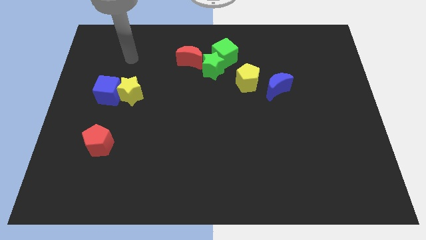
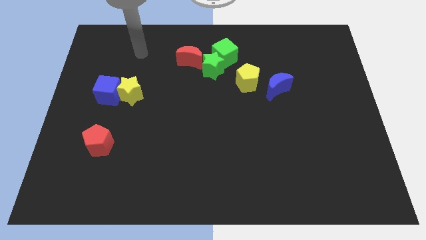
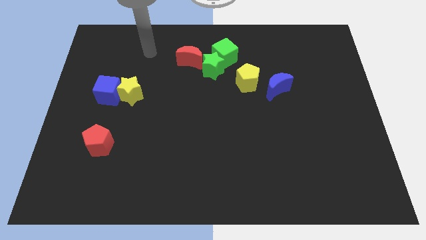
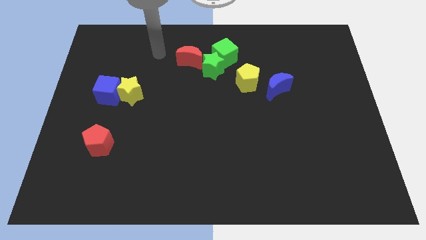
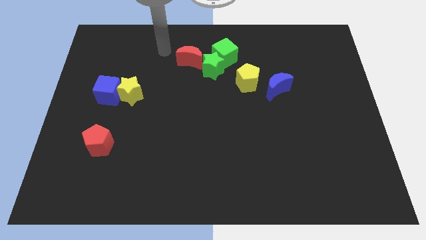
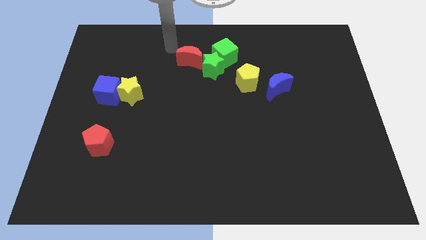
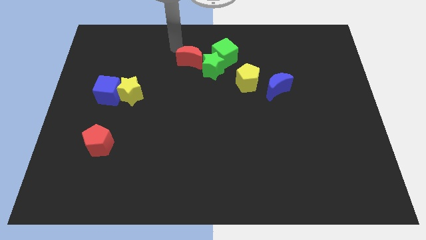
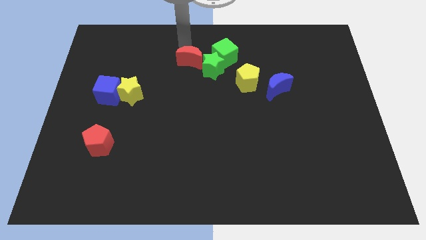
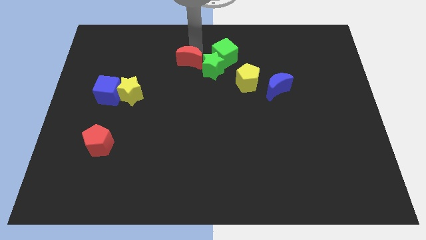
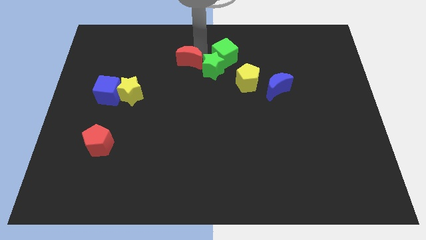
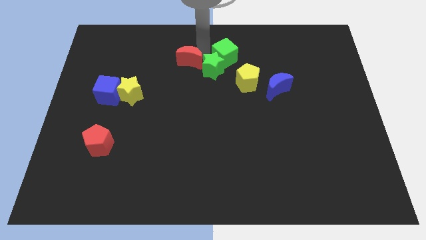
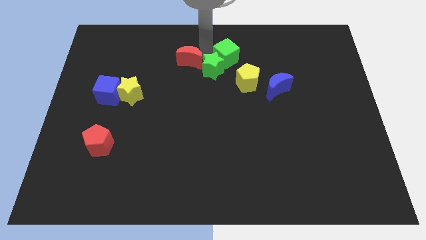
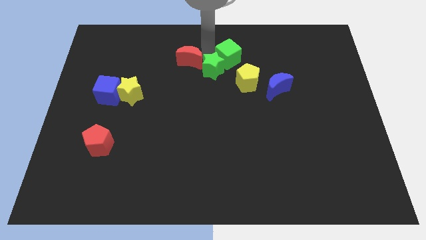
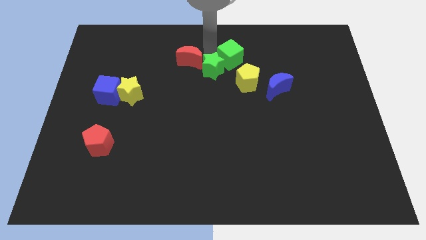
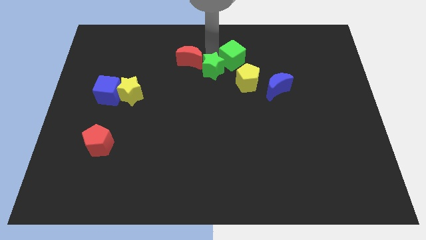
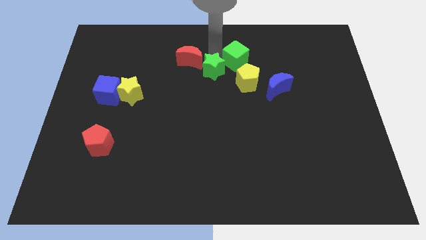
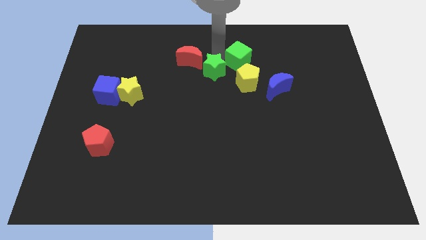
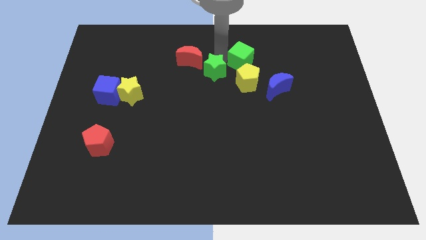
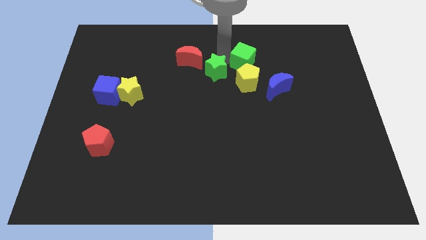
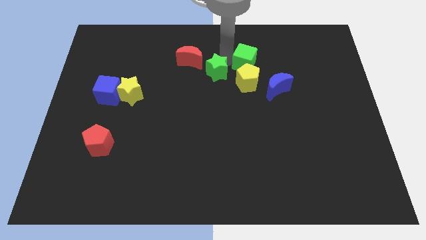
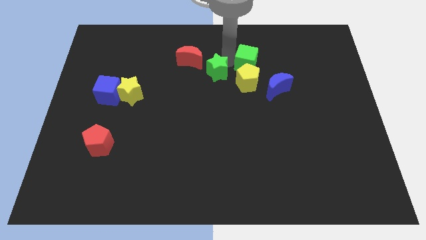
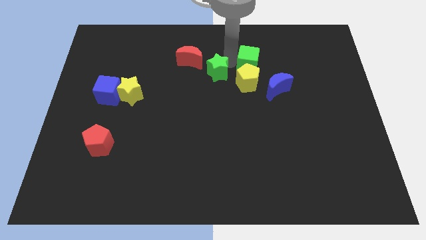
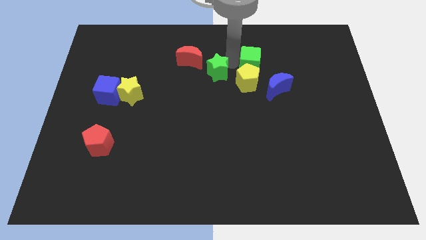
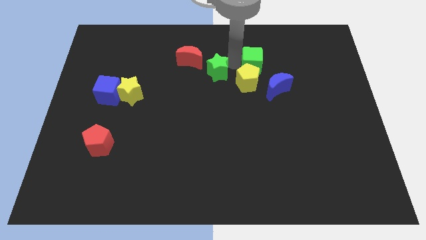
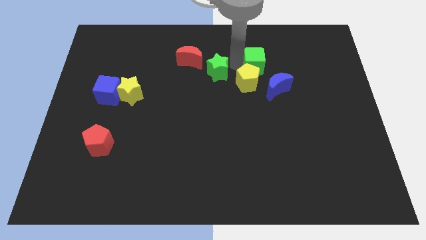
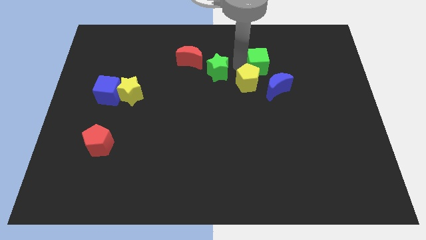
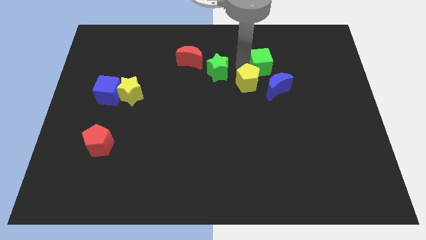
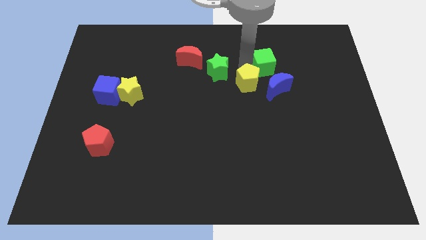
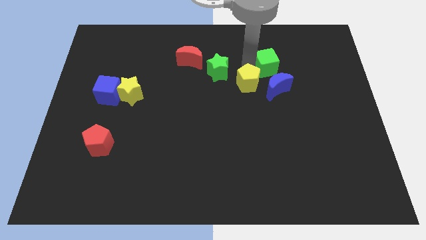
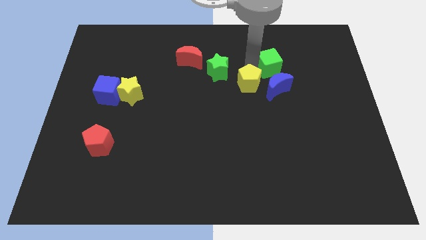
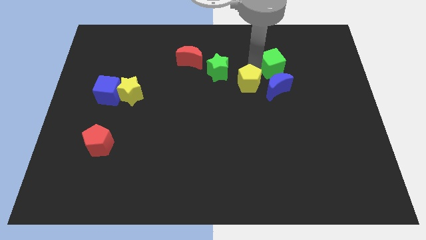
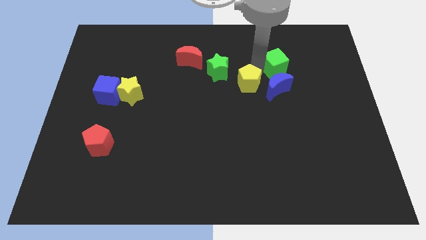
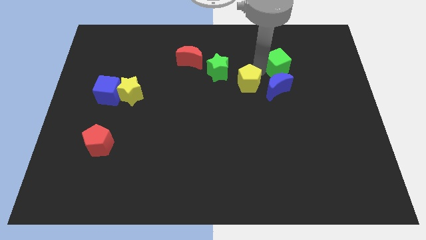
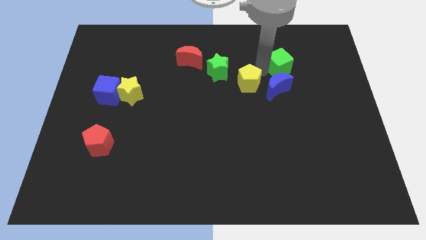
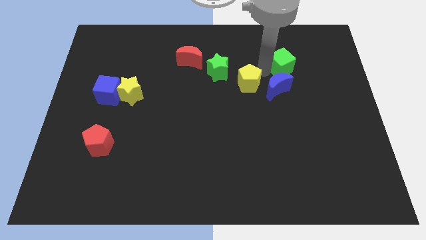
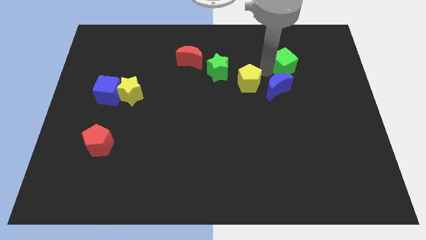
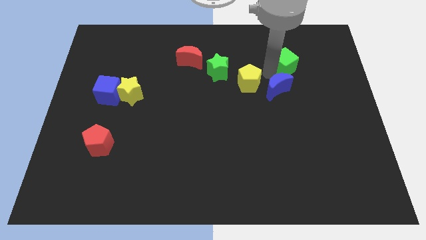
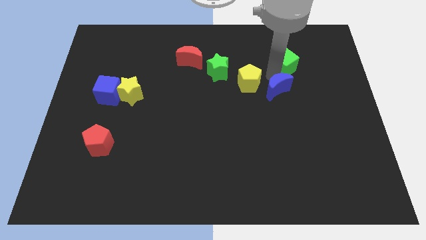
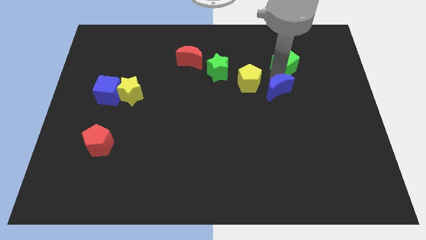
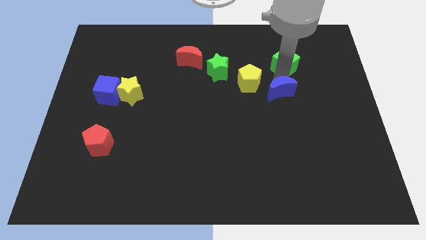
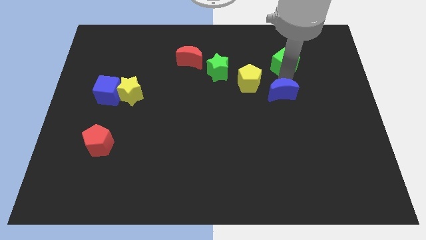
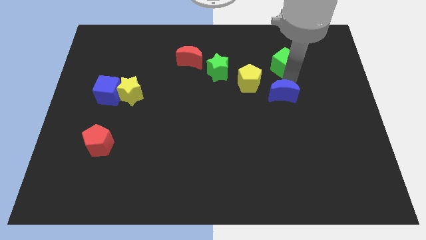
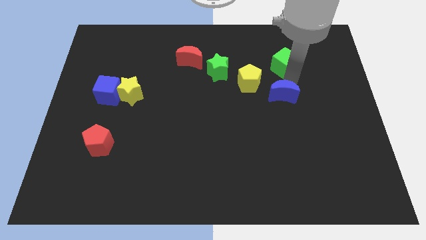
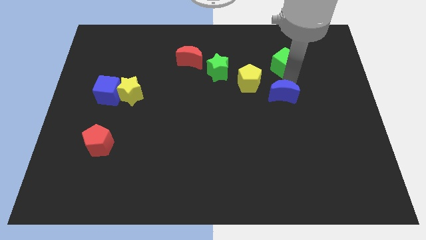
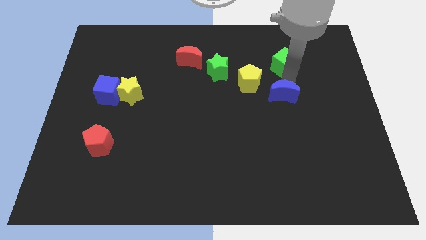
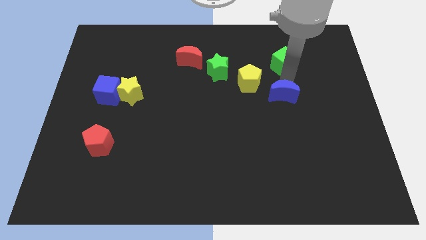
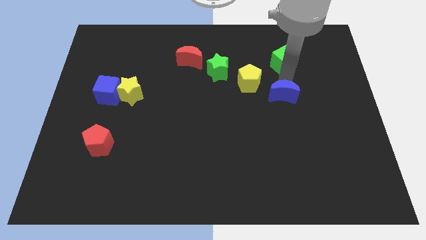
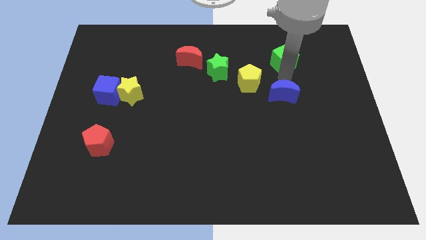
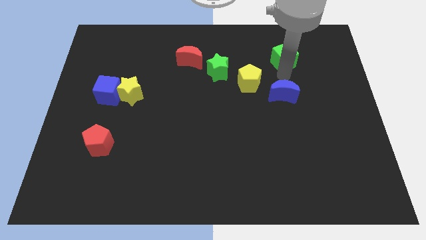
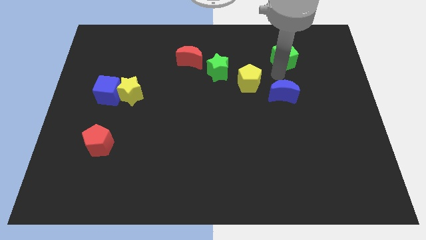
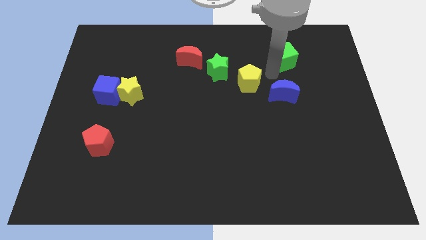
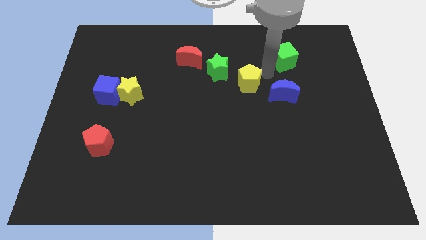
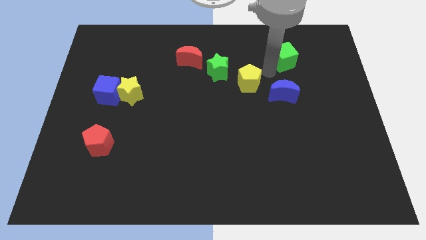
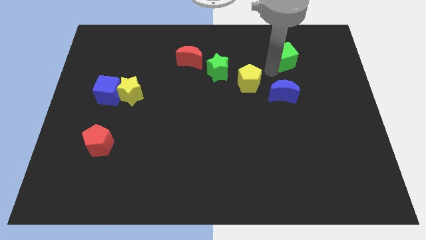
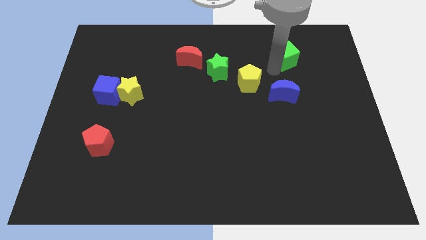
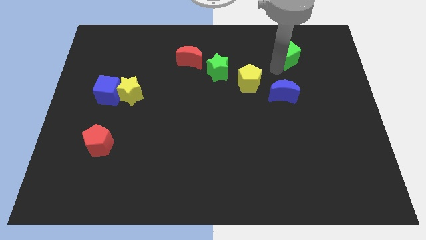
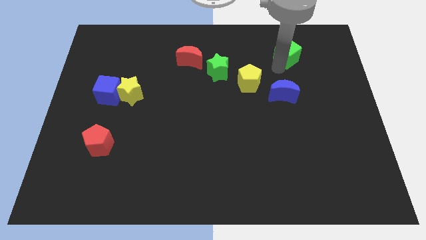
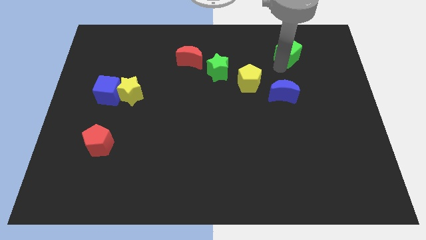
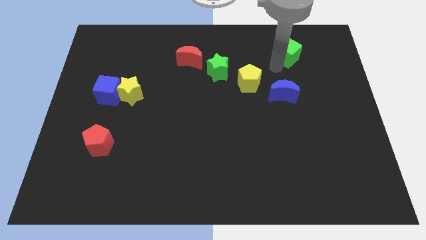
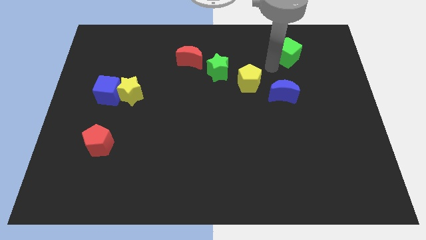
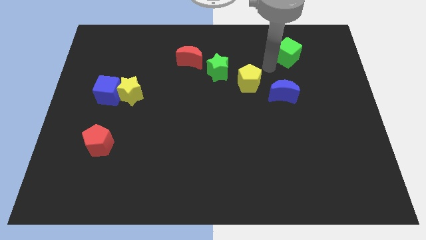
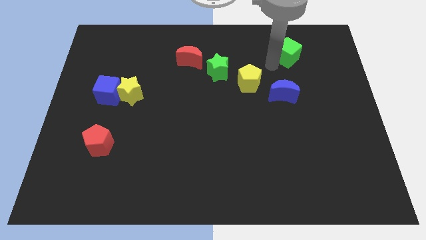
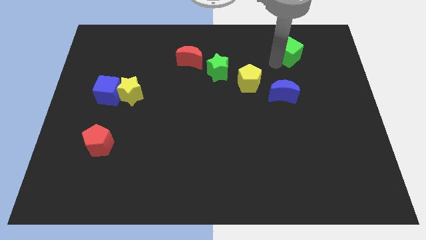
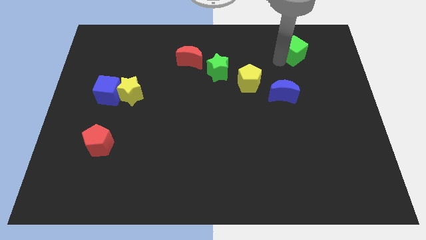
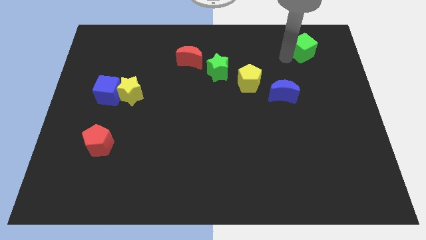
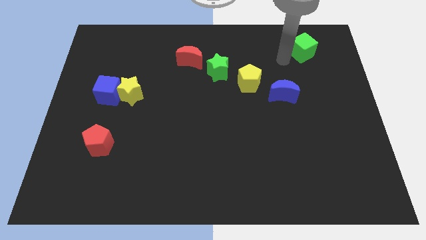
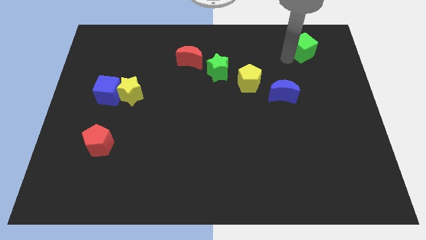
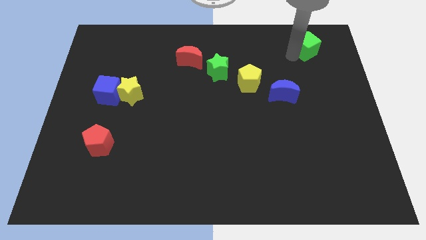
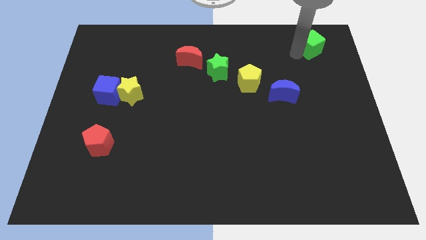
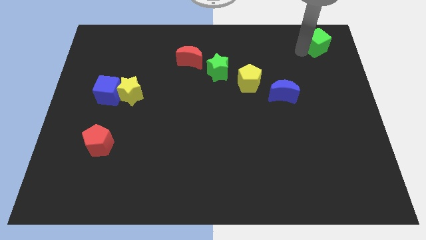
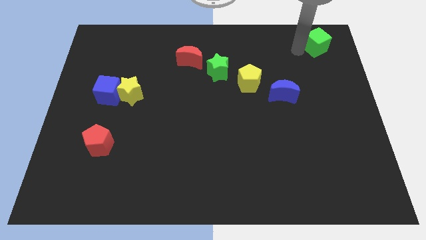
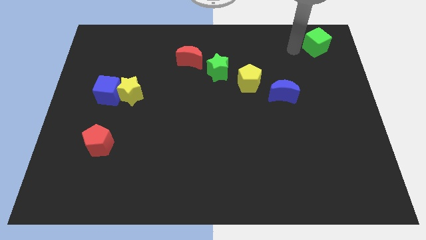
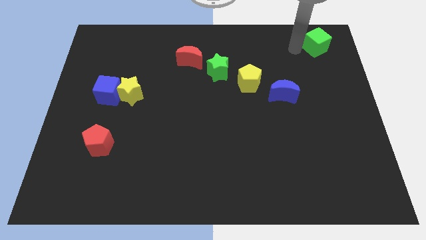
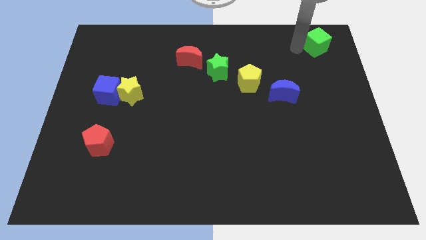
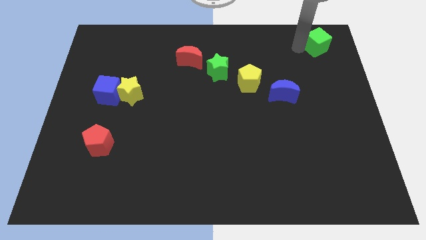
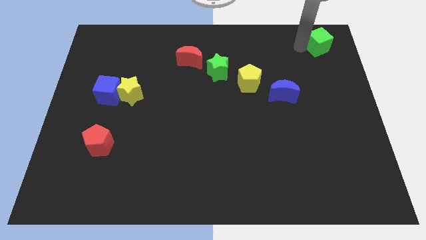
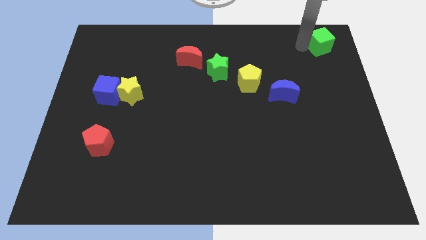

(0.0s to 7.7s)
put the green cube to the top right
